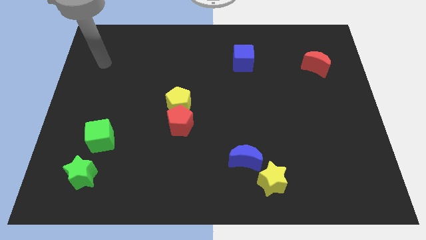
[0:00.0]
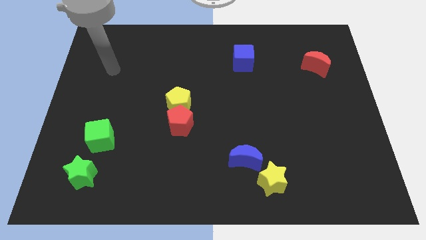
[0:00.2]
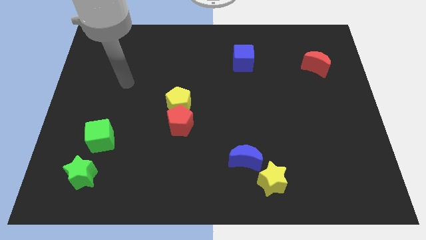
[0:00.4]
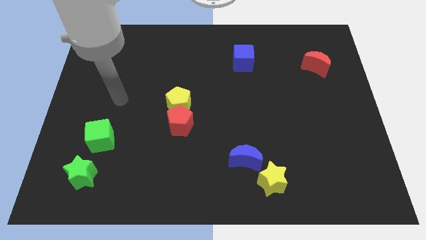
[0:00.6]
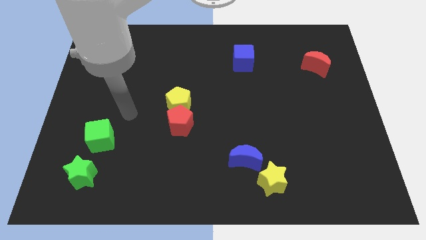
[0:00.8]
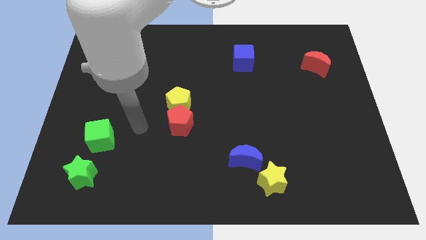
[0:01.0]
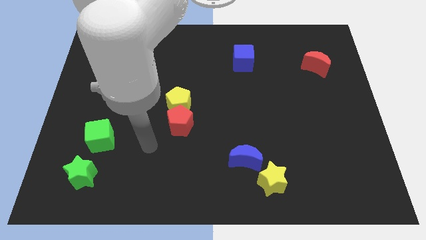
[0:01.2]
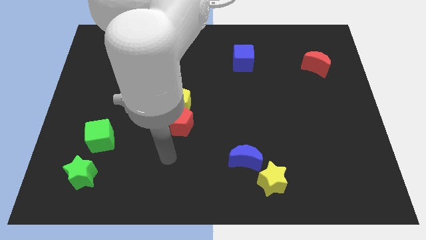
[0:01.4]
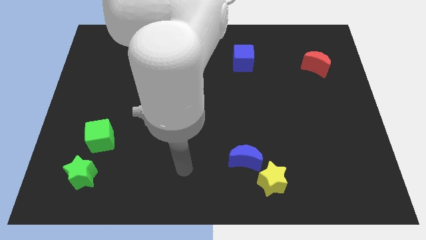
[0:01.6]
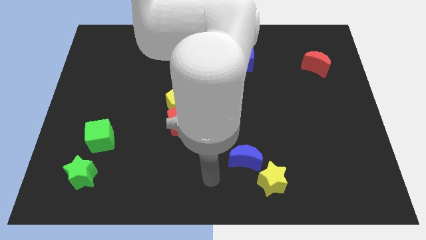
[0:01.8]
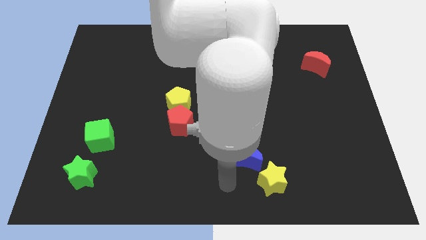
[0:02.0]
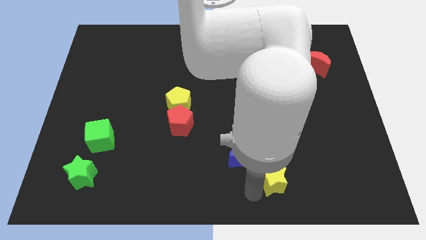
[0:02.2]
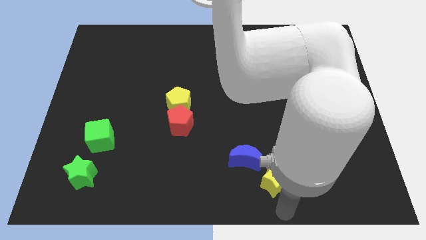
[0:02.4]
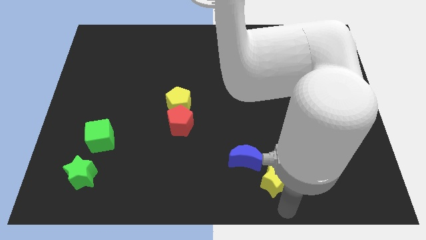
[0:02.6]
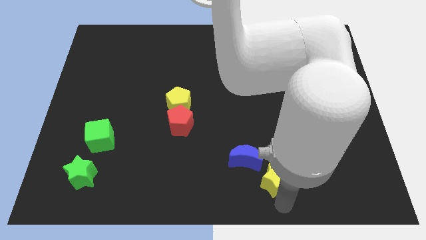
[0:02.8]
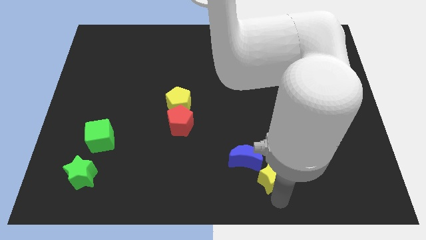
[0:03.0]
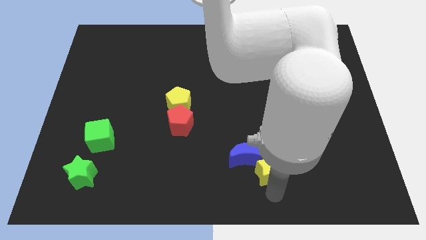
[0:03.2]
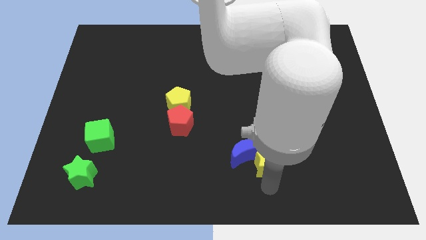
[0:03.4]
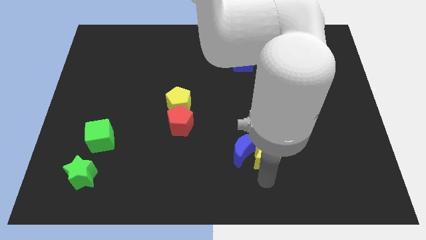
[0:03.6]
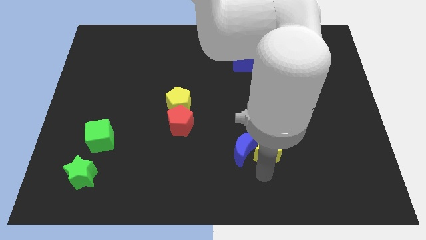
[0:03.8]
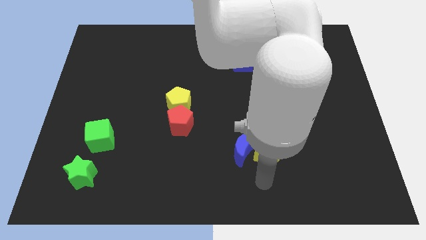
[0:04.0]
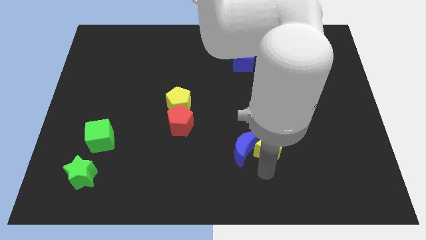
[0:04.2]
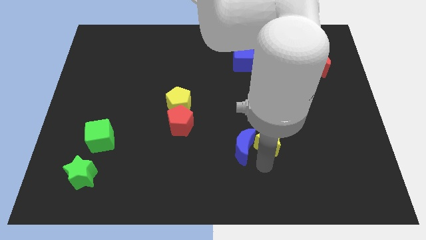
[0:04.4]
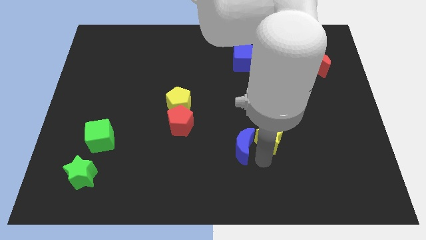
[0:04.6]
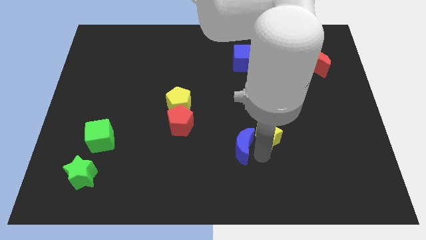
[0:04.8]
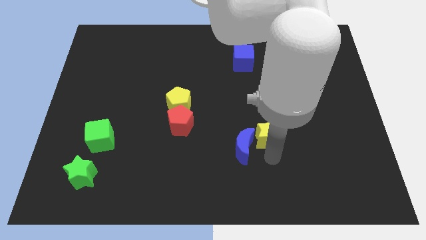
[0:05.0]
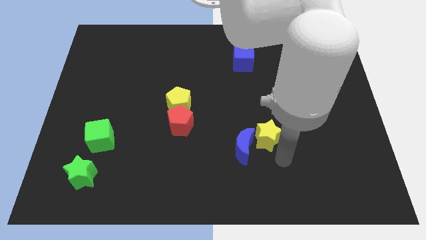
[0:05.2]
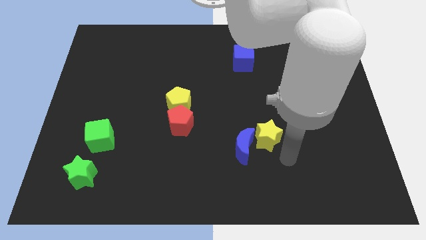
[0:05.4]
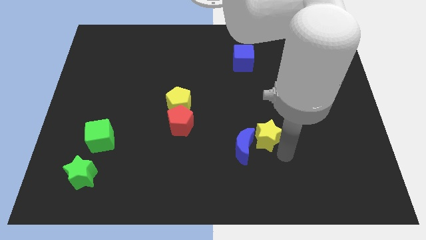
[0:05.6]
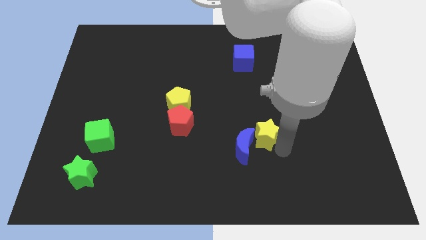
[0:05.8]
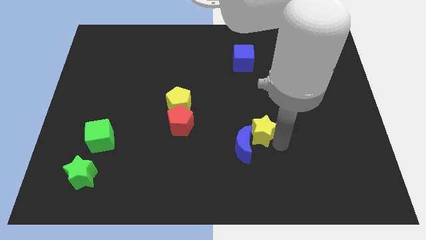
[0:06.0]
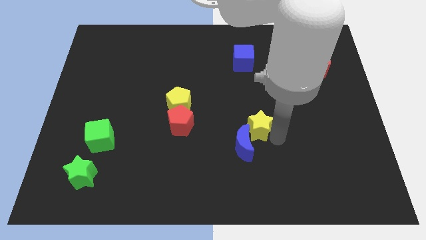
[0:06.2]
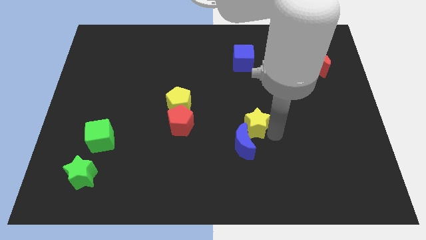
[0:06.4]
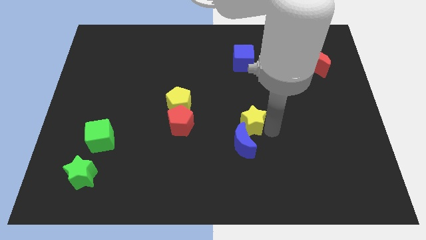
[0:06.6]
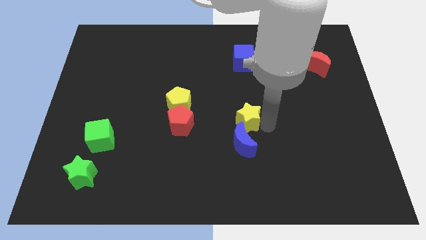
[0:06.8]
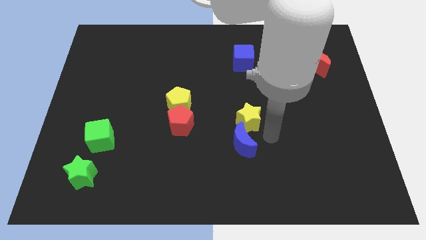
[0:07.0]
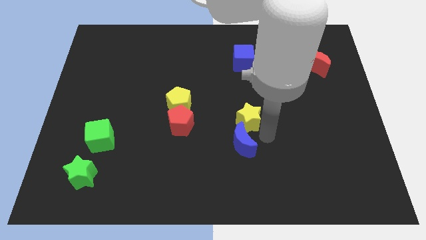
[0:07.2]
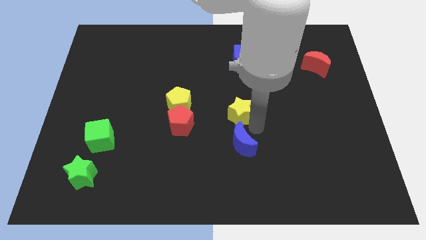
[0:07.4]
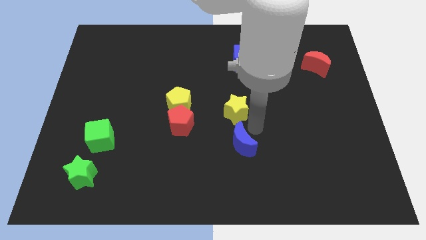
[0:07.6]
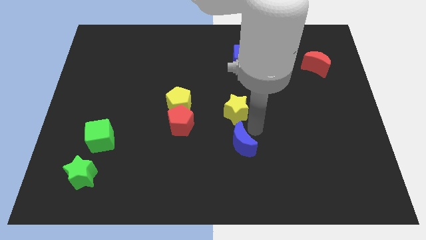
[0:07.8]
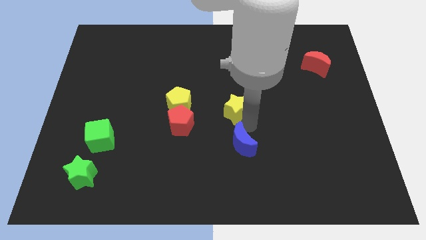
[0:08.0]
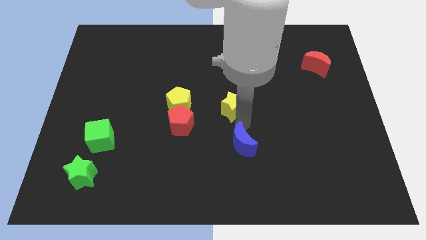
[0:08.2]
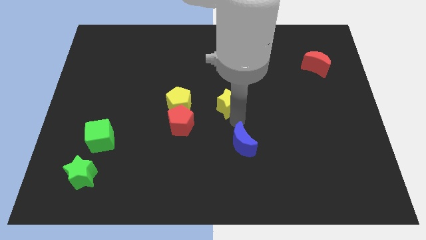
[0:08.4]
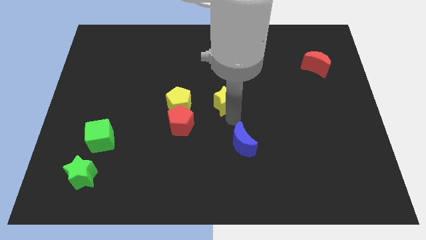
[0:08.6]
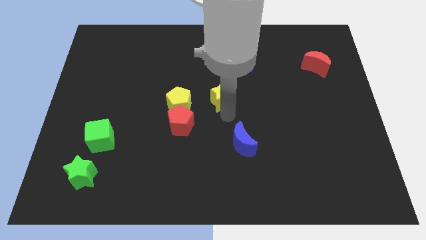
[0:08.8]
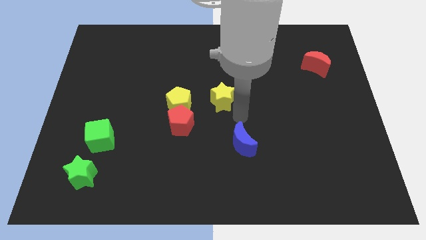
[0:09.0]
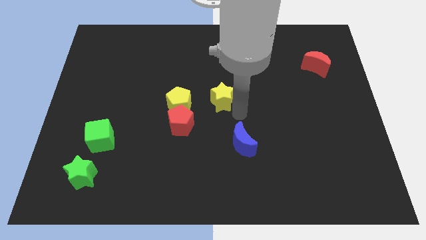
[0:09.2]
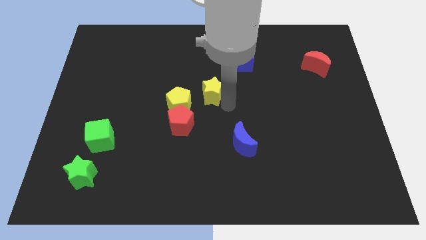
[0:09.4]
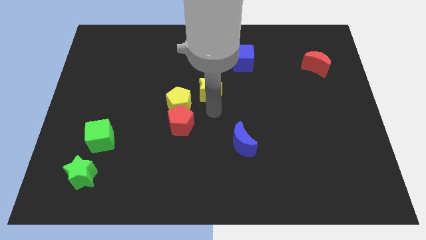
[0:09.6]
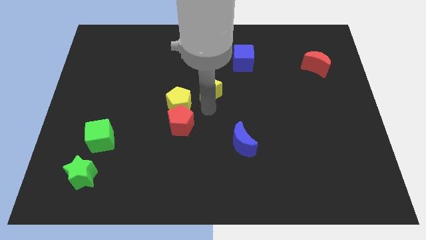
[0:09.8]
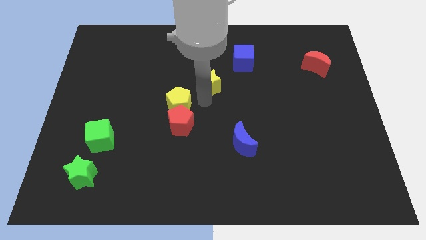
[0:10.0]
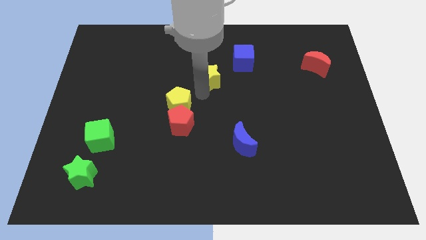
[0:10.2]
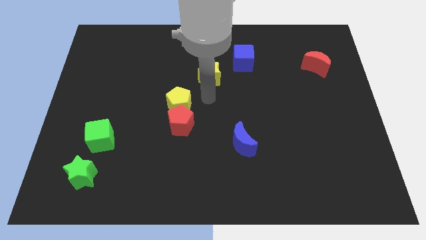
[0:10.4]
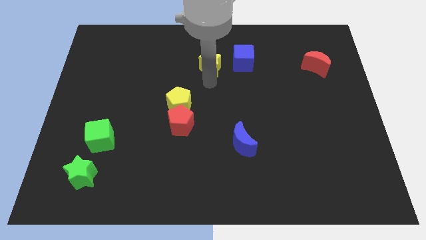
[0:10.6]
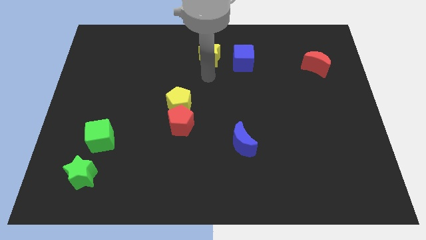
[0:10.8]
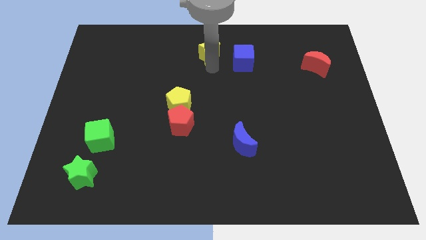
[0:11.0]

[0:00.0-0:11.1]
put the yellow star to the towards your base
